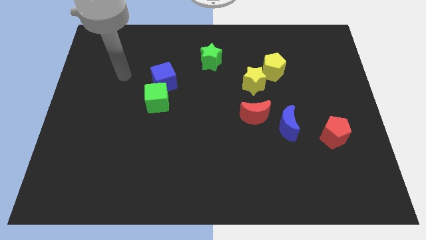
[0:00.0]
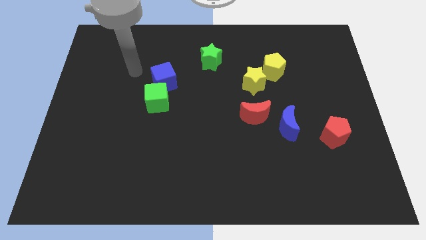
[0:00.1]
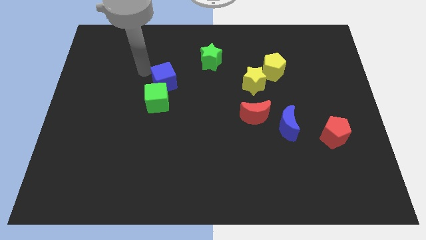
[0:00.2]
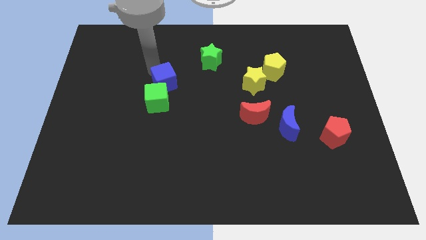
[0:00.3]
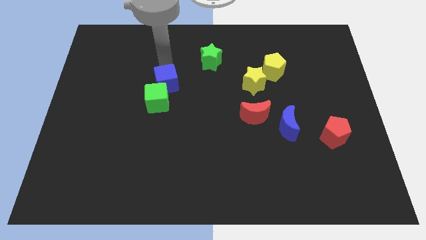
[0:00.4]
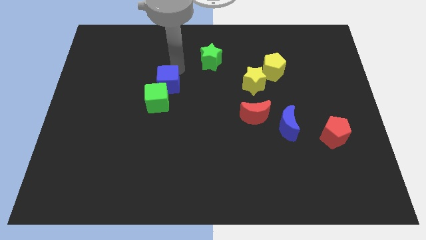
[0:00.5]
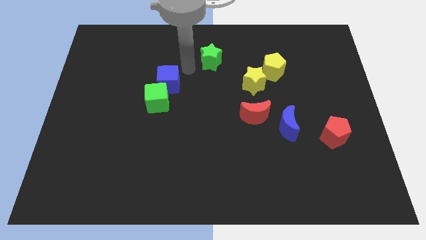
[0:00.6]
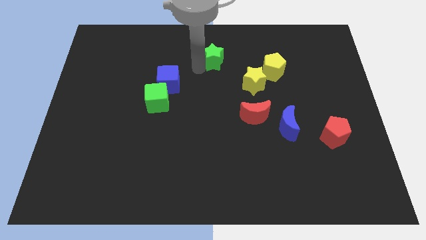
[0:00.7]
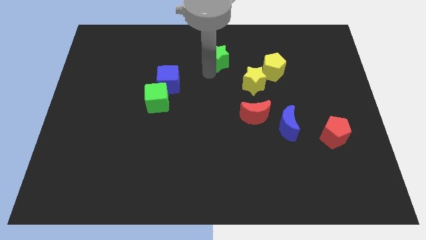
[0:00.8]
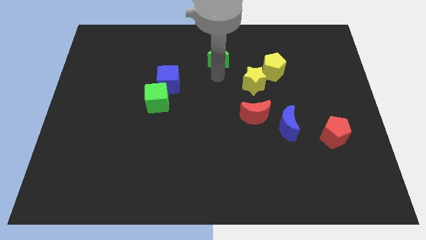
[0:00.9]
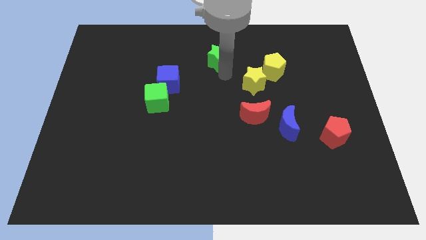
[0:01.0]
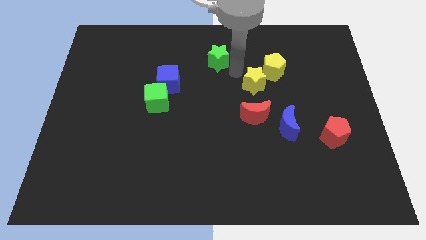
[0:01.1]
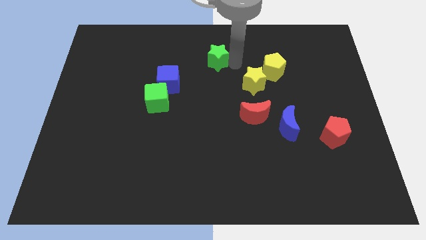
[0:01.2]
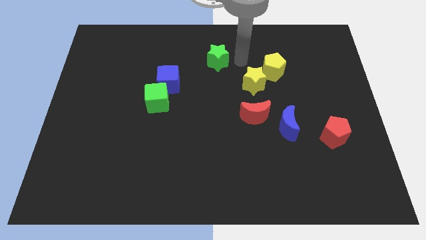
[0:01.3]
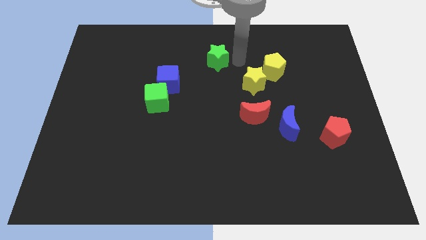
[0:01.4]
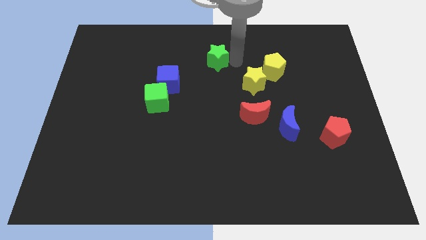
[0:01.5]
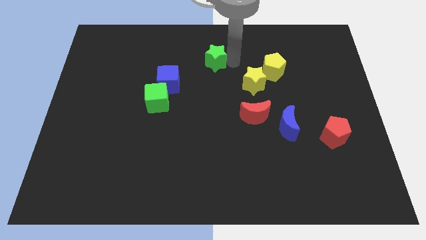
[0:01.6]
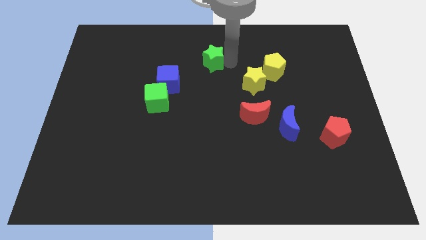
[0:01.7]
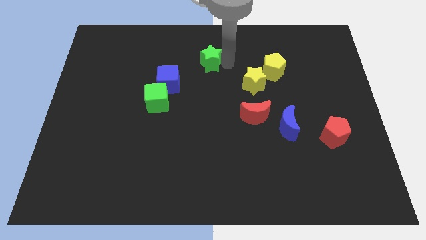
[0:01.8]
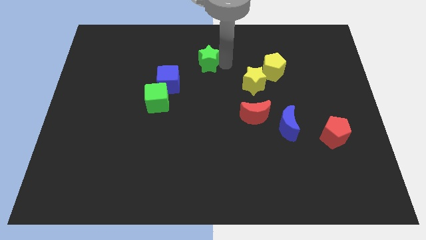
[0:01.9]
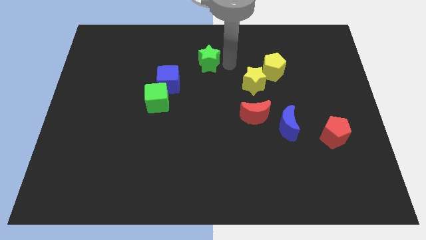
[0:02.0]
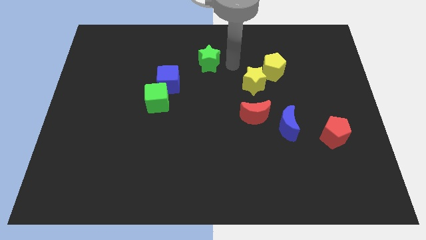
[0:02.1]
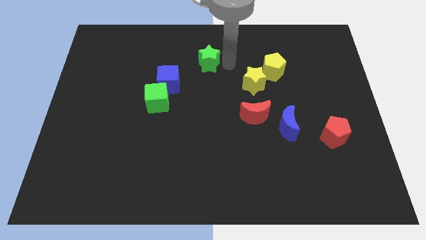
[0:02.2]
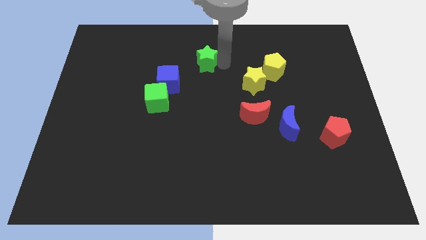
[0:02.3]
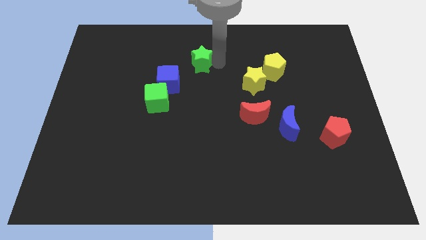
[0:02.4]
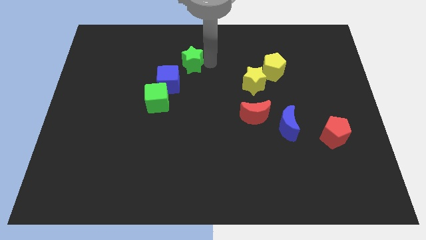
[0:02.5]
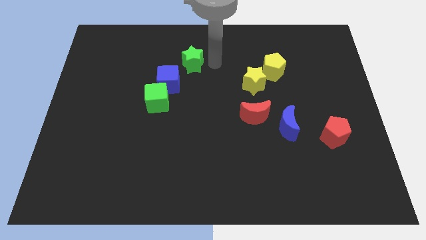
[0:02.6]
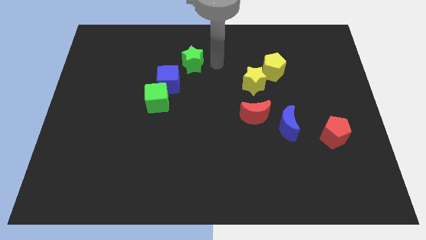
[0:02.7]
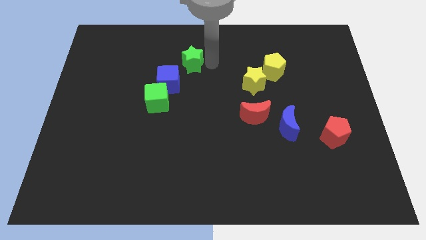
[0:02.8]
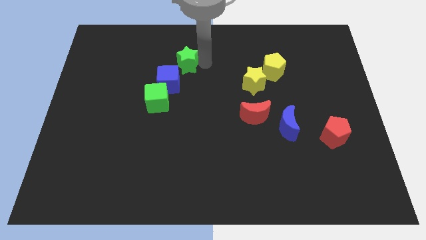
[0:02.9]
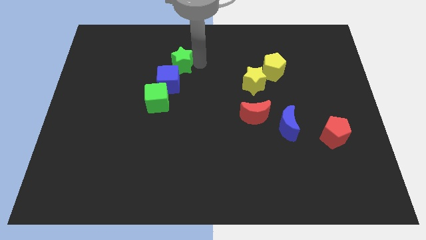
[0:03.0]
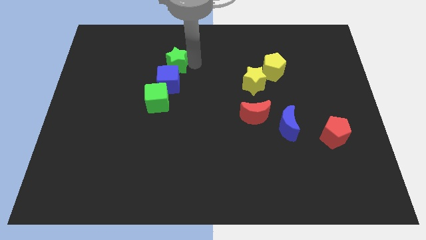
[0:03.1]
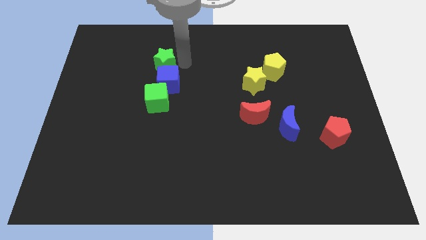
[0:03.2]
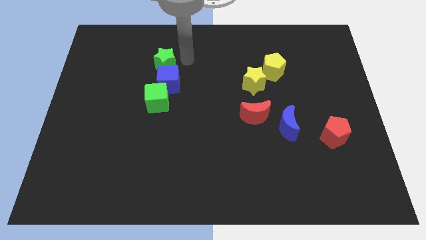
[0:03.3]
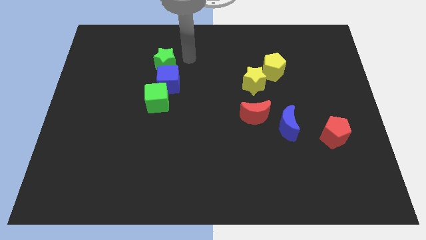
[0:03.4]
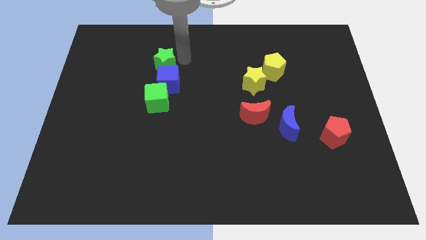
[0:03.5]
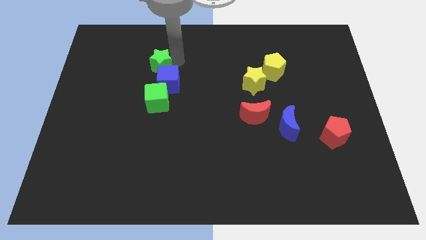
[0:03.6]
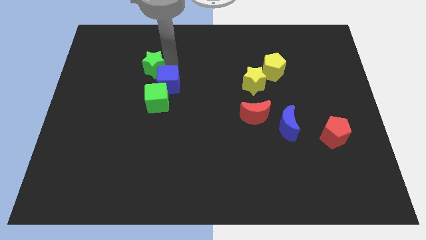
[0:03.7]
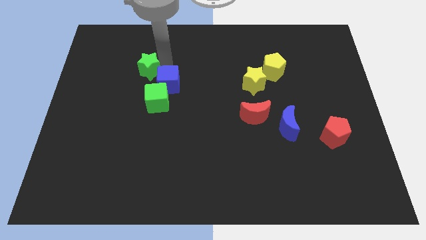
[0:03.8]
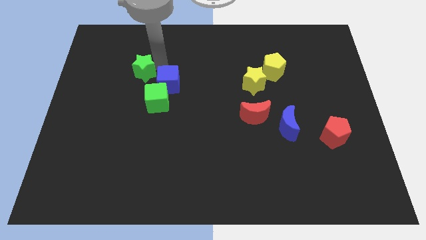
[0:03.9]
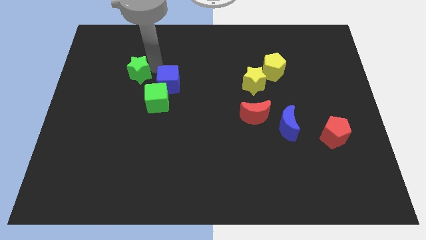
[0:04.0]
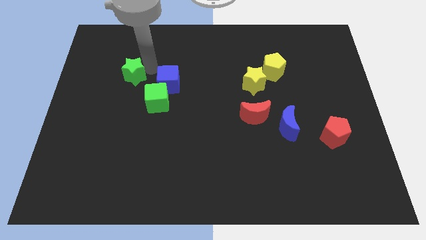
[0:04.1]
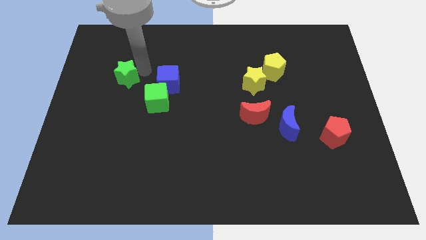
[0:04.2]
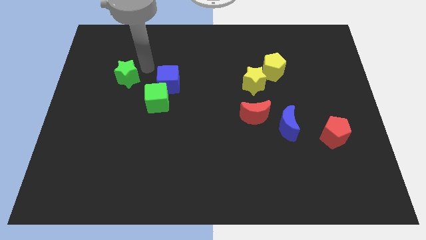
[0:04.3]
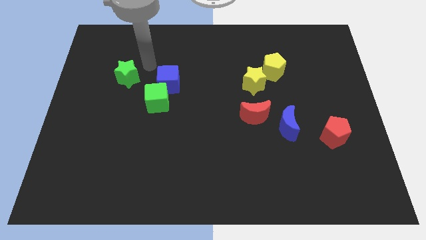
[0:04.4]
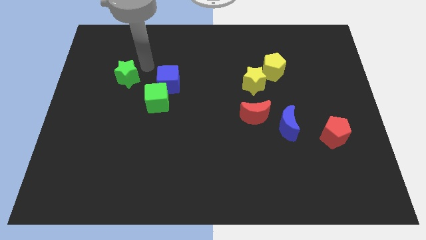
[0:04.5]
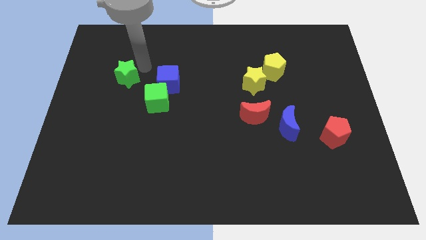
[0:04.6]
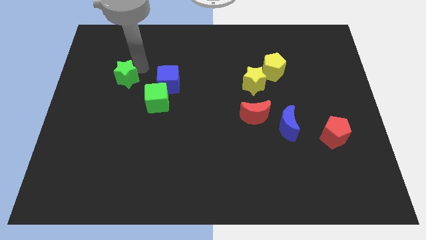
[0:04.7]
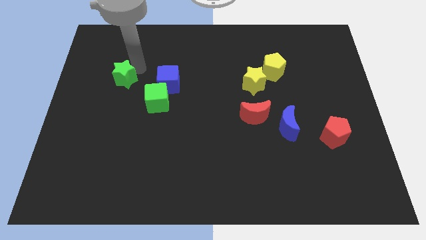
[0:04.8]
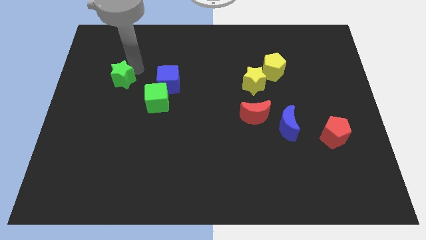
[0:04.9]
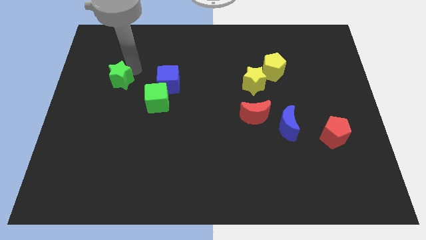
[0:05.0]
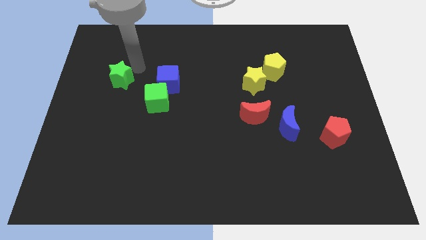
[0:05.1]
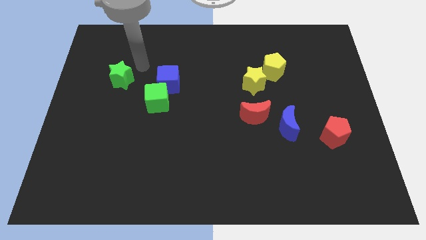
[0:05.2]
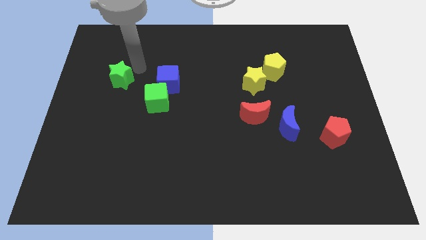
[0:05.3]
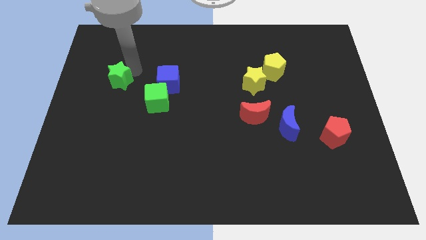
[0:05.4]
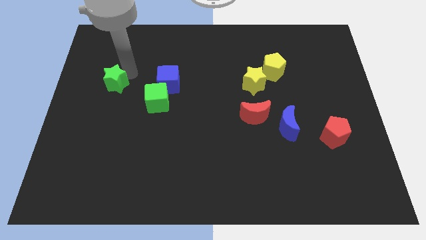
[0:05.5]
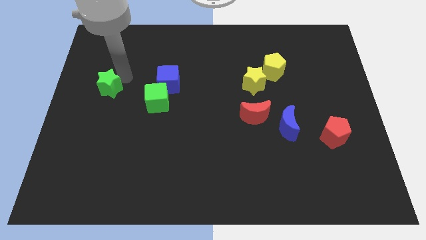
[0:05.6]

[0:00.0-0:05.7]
move the green star to the center left

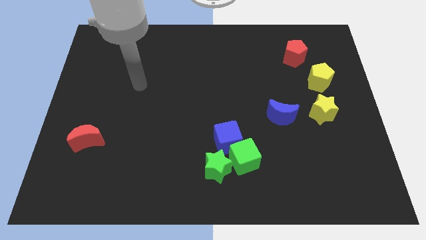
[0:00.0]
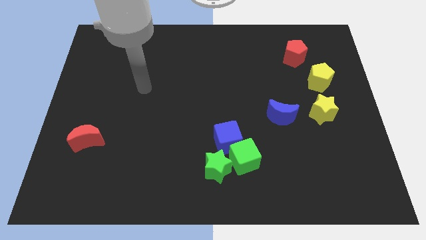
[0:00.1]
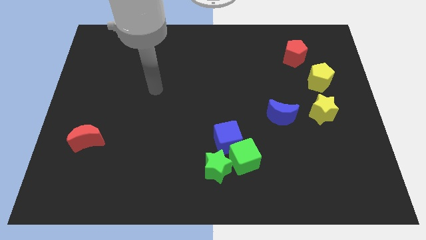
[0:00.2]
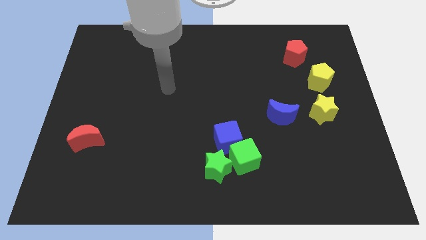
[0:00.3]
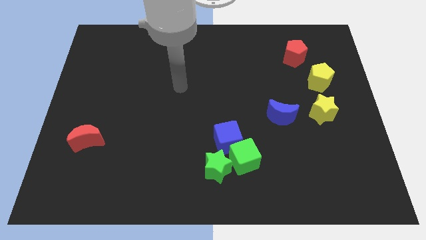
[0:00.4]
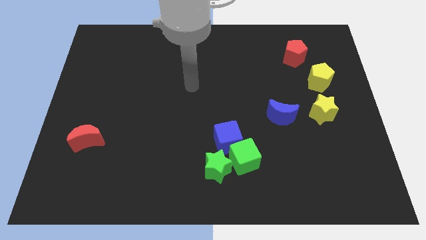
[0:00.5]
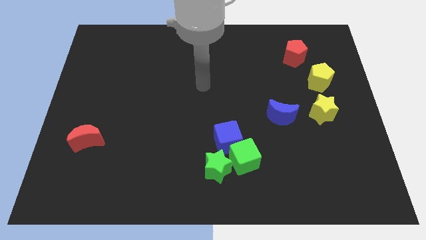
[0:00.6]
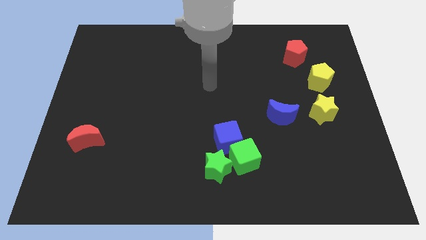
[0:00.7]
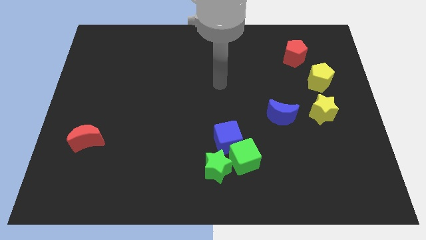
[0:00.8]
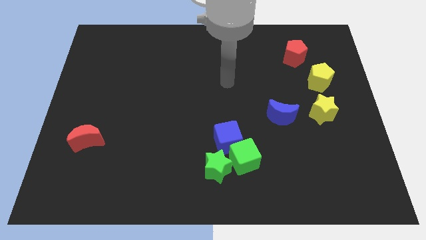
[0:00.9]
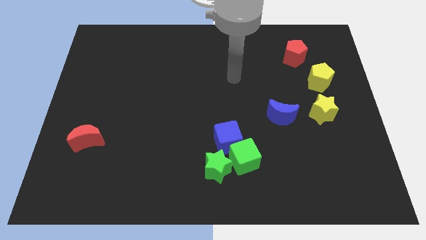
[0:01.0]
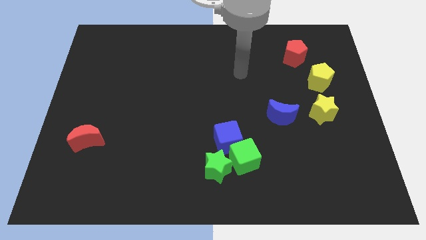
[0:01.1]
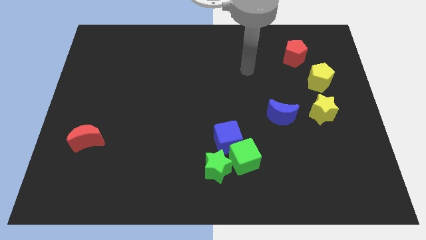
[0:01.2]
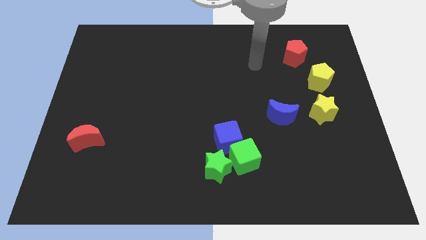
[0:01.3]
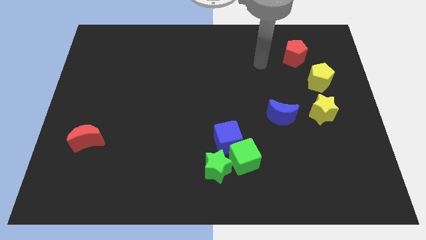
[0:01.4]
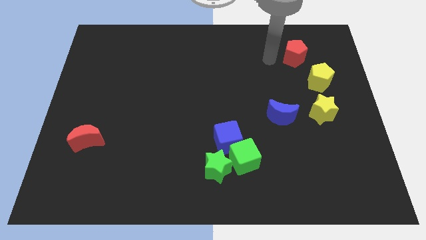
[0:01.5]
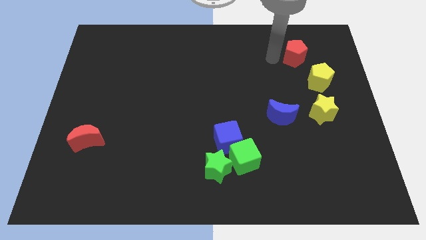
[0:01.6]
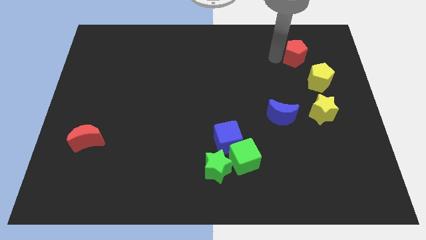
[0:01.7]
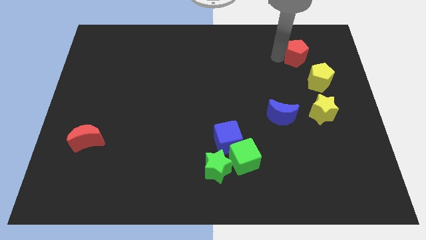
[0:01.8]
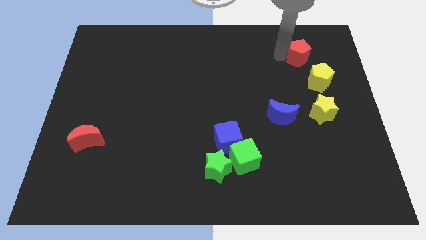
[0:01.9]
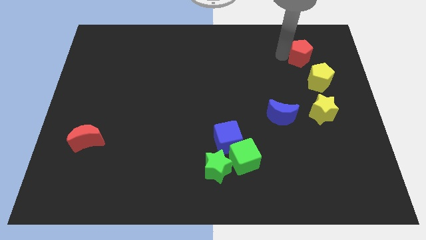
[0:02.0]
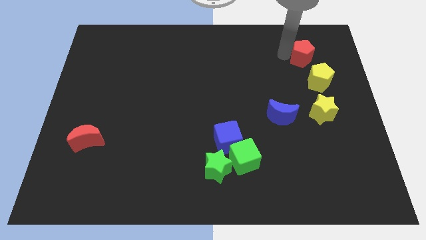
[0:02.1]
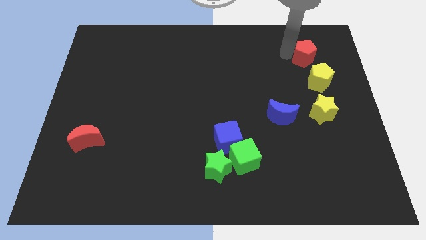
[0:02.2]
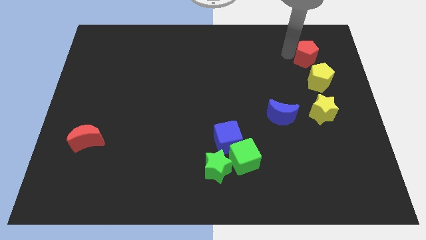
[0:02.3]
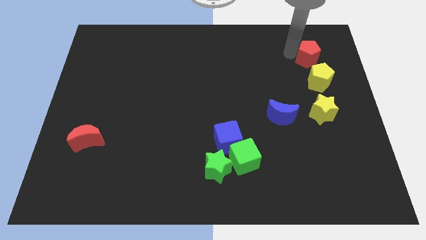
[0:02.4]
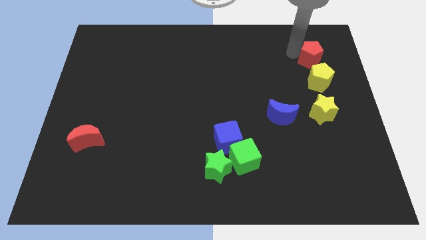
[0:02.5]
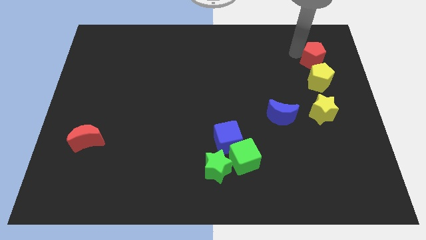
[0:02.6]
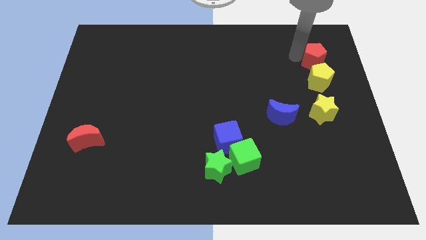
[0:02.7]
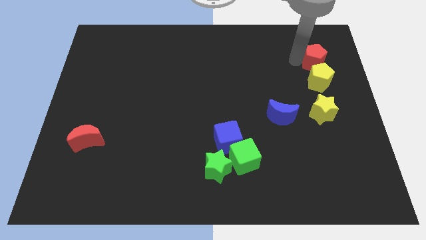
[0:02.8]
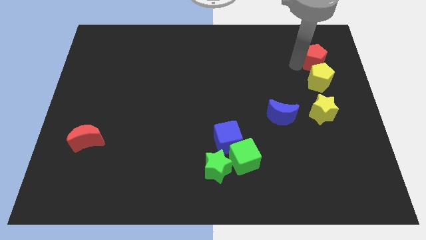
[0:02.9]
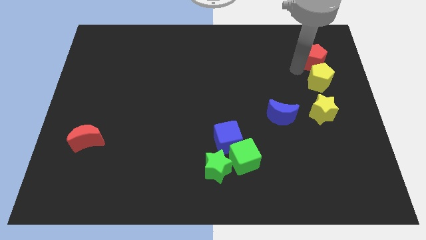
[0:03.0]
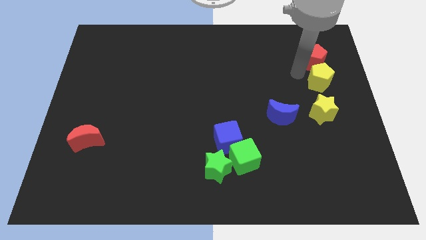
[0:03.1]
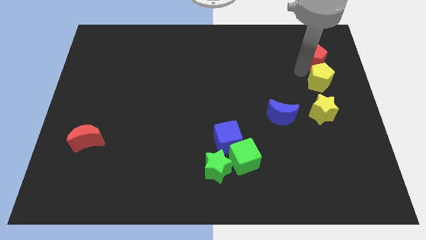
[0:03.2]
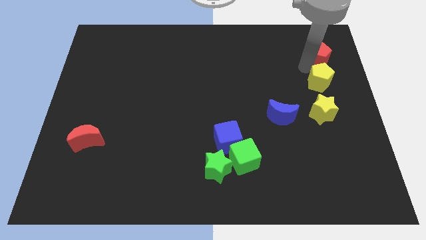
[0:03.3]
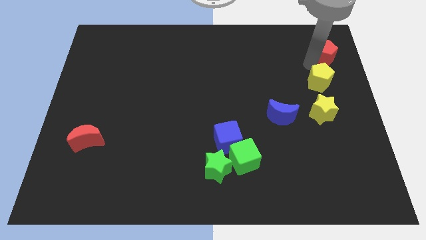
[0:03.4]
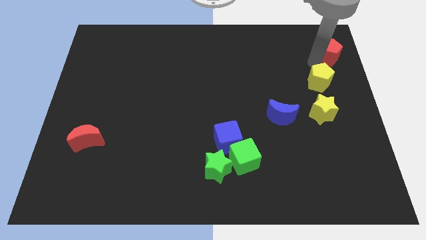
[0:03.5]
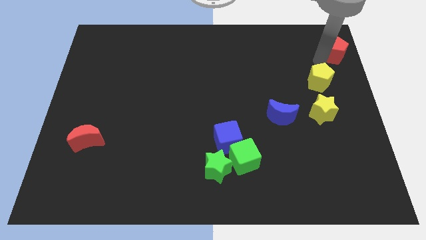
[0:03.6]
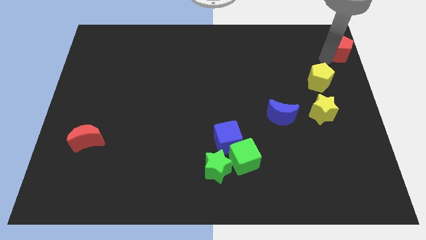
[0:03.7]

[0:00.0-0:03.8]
put the red pentagon to the top right corner
